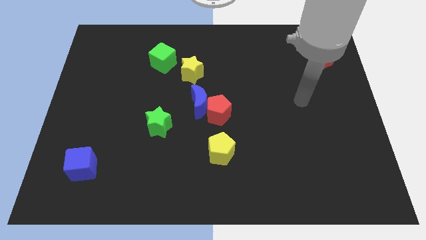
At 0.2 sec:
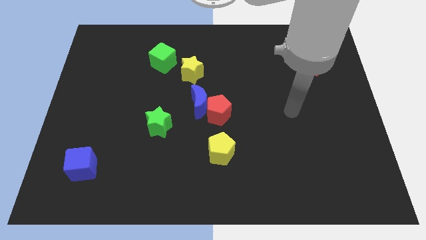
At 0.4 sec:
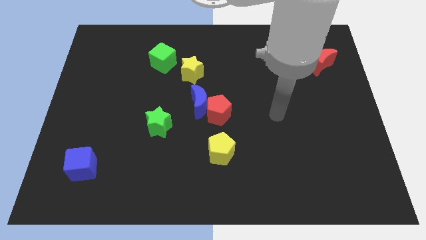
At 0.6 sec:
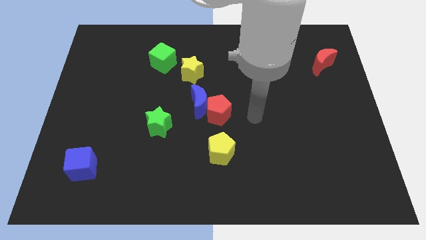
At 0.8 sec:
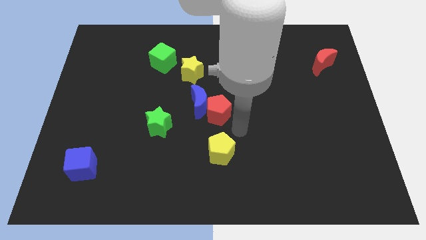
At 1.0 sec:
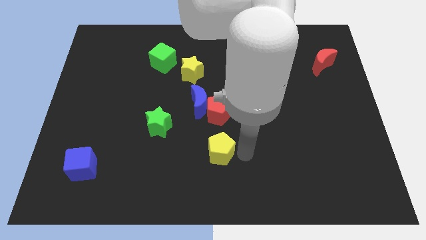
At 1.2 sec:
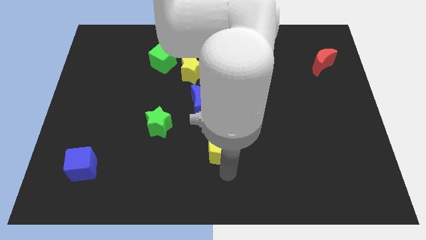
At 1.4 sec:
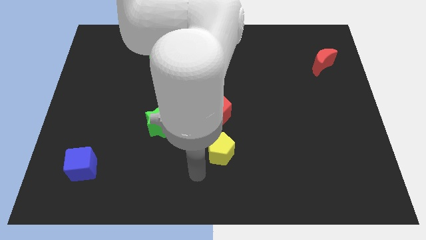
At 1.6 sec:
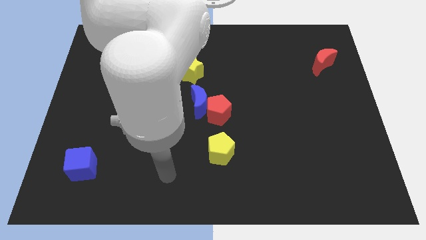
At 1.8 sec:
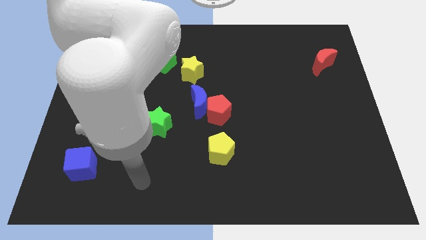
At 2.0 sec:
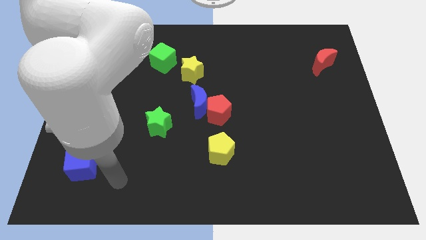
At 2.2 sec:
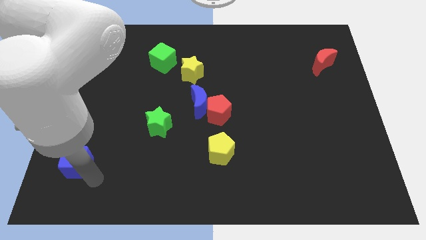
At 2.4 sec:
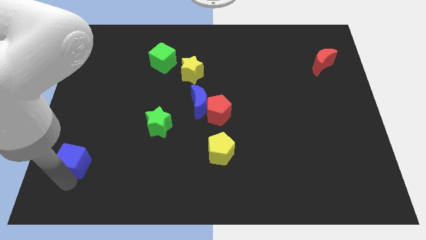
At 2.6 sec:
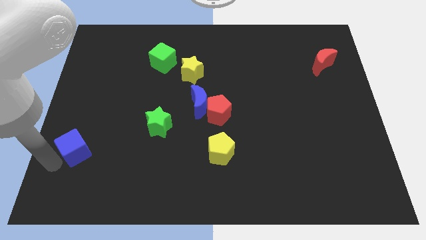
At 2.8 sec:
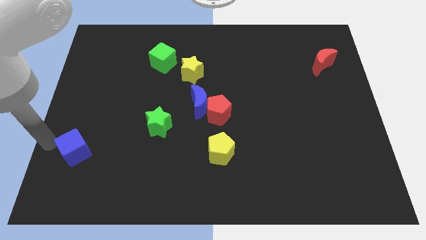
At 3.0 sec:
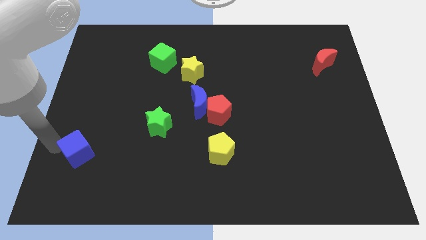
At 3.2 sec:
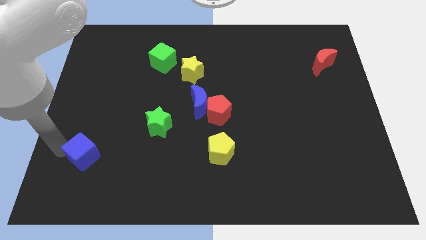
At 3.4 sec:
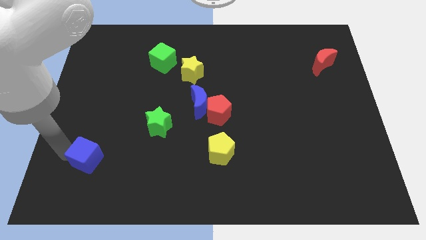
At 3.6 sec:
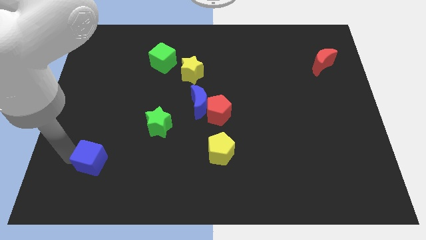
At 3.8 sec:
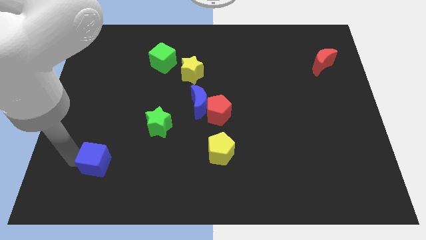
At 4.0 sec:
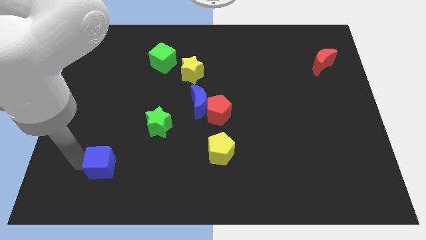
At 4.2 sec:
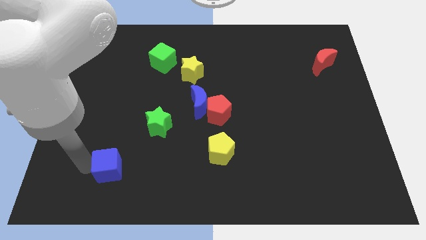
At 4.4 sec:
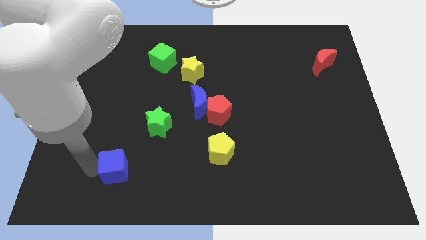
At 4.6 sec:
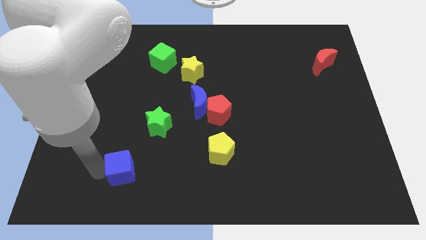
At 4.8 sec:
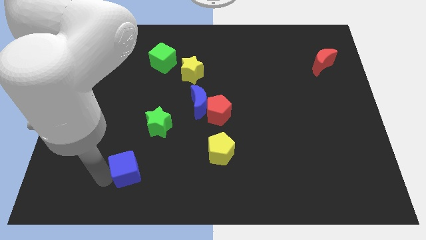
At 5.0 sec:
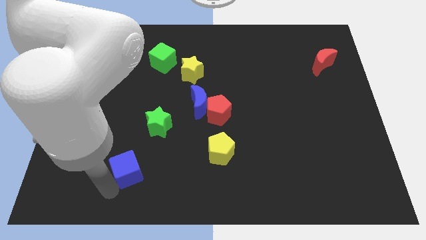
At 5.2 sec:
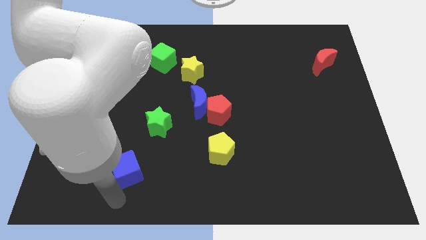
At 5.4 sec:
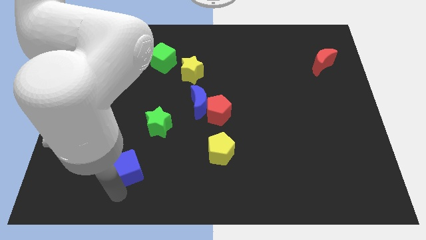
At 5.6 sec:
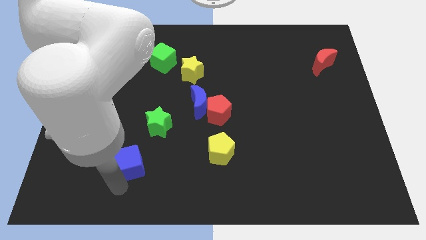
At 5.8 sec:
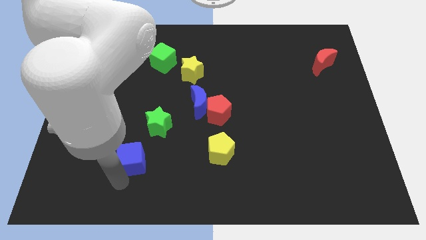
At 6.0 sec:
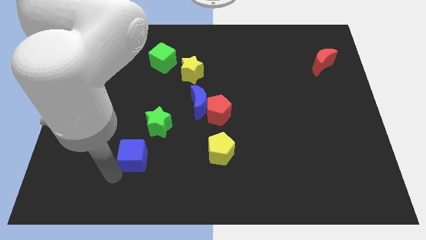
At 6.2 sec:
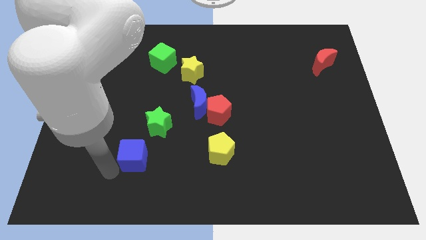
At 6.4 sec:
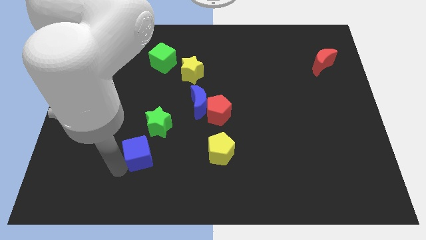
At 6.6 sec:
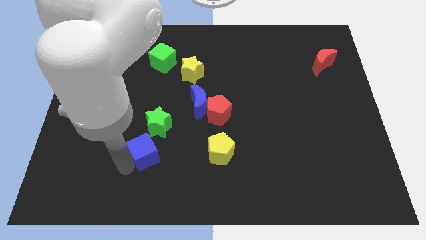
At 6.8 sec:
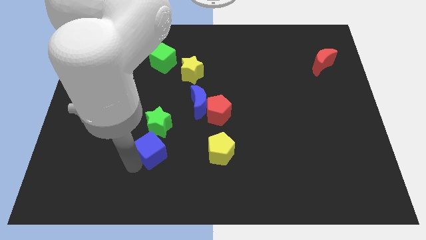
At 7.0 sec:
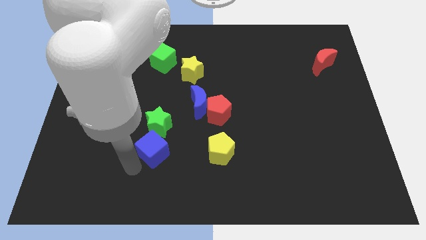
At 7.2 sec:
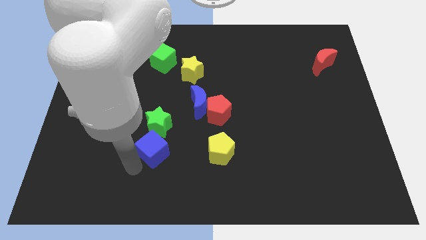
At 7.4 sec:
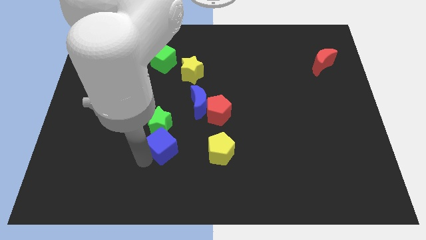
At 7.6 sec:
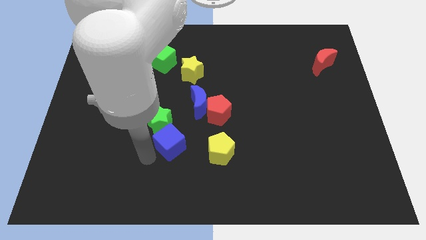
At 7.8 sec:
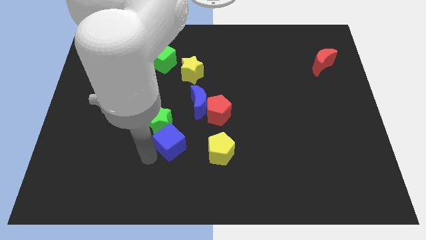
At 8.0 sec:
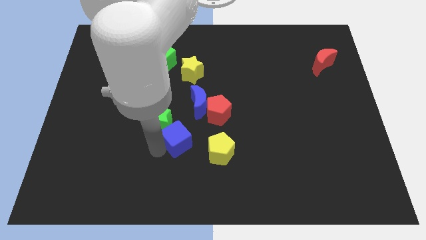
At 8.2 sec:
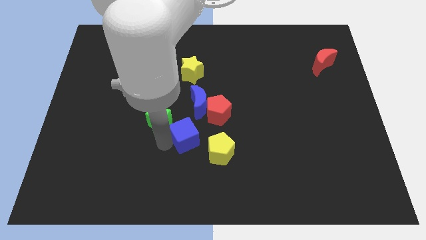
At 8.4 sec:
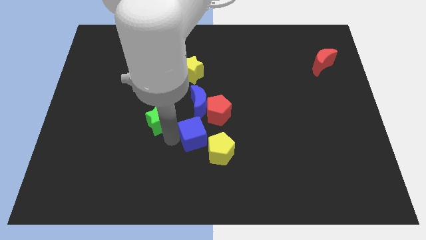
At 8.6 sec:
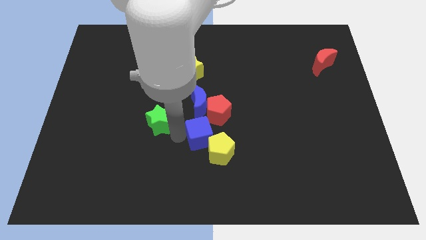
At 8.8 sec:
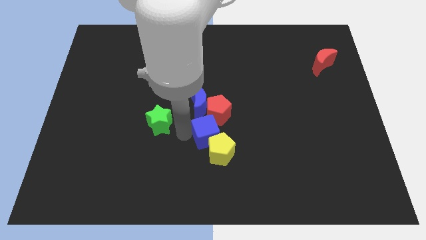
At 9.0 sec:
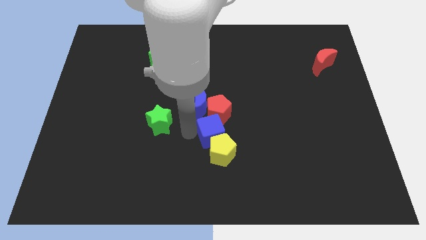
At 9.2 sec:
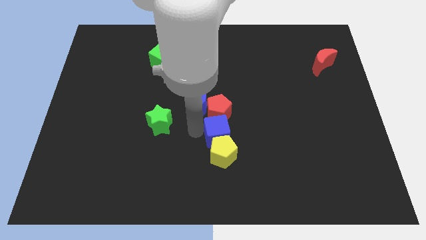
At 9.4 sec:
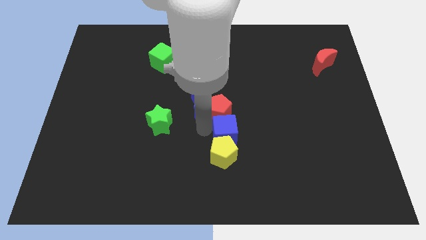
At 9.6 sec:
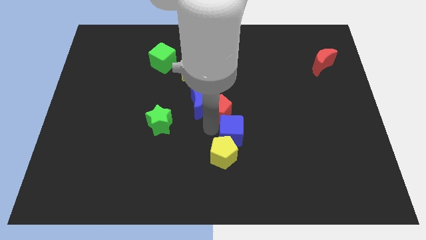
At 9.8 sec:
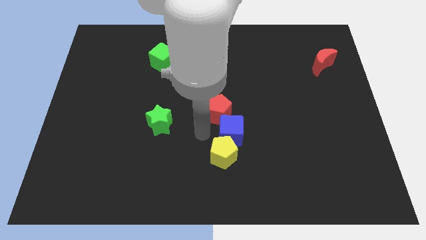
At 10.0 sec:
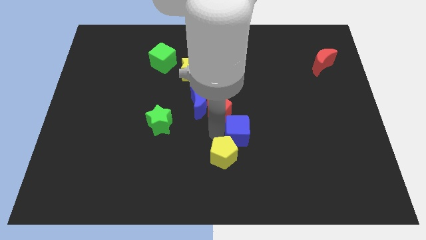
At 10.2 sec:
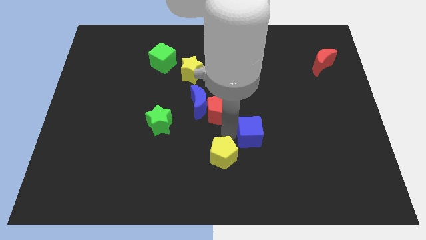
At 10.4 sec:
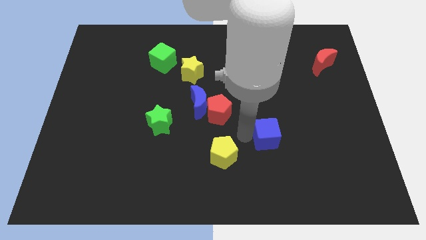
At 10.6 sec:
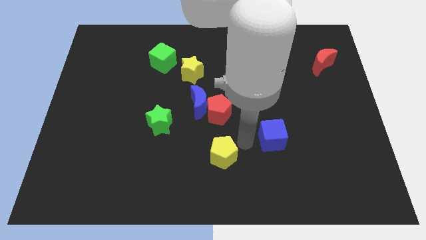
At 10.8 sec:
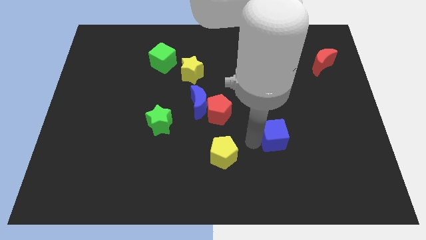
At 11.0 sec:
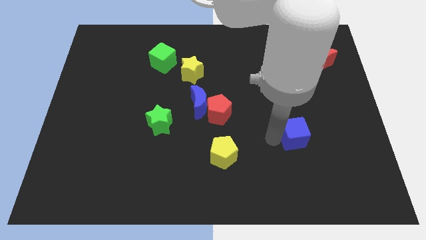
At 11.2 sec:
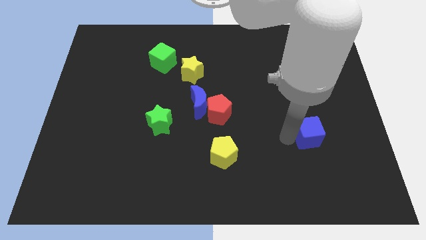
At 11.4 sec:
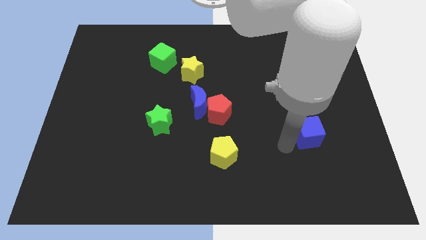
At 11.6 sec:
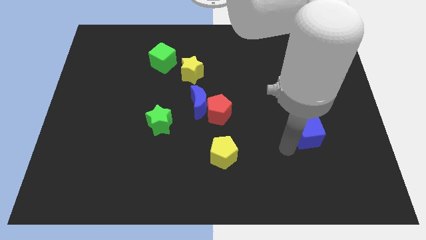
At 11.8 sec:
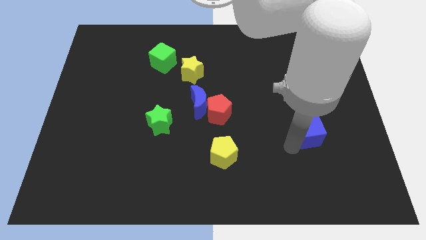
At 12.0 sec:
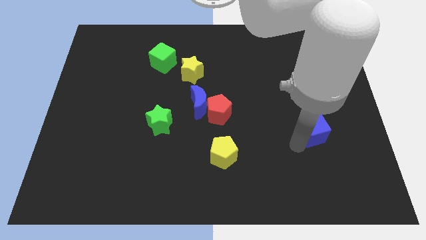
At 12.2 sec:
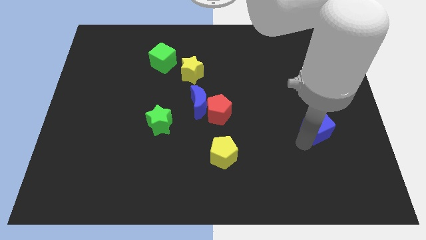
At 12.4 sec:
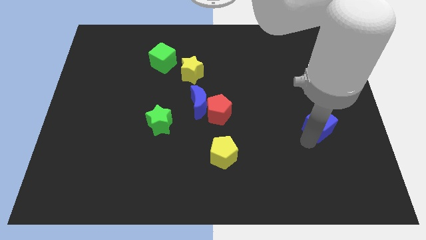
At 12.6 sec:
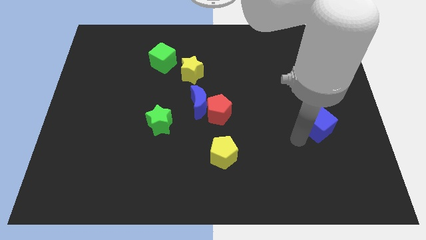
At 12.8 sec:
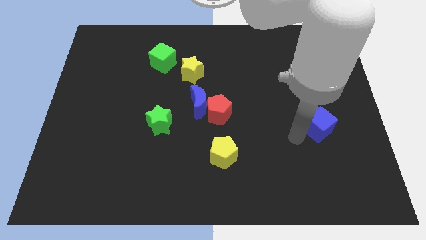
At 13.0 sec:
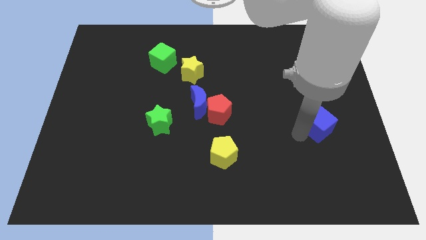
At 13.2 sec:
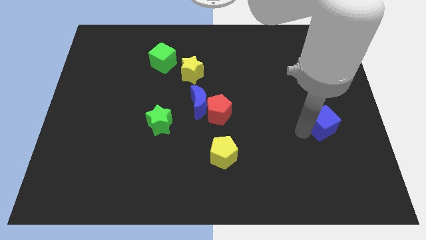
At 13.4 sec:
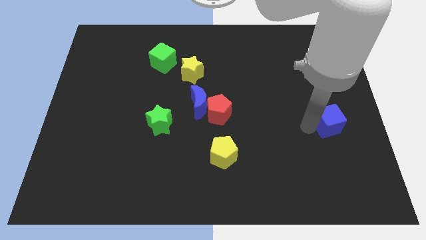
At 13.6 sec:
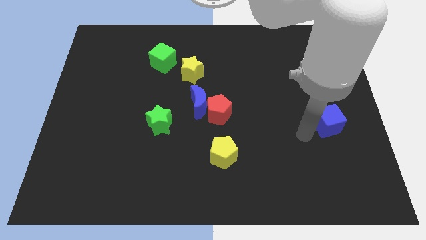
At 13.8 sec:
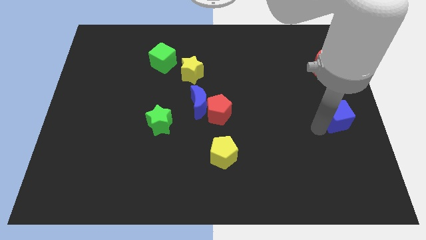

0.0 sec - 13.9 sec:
push the blue cube to the right side of the board

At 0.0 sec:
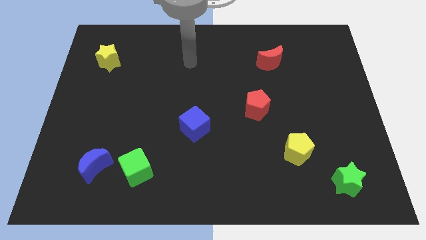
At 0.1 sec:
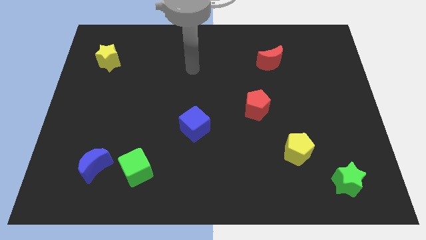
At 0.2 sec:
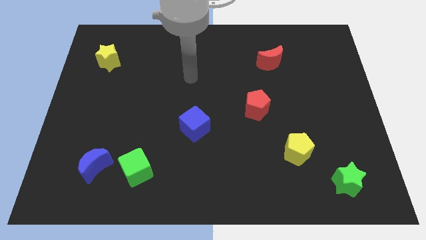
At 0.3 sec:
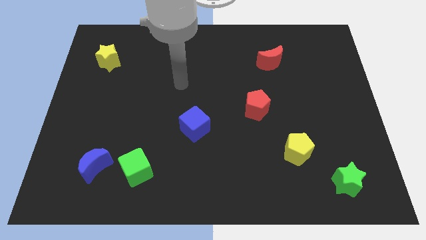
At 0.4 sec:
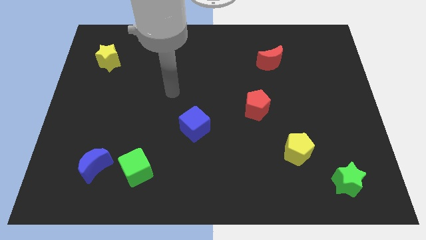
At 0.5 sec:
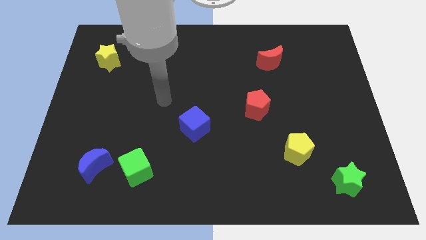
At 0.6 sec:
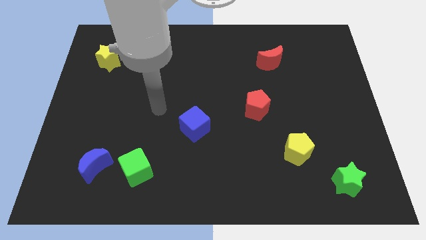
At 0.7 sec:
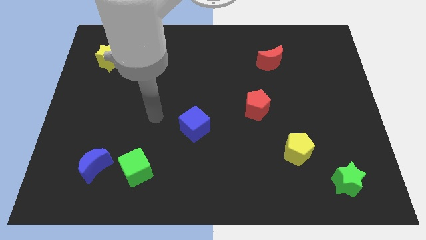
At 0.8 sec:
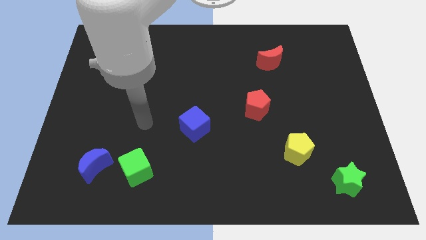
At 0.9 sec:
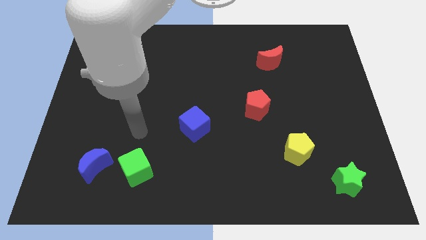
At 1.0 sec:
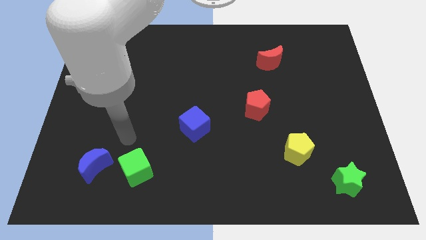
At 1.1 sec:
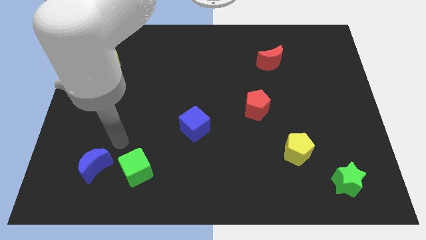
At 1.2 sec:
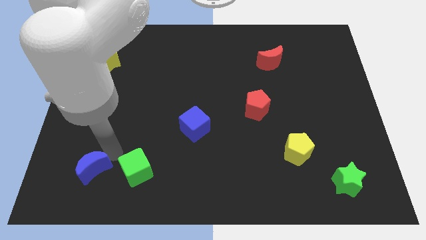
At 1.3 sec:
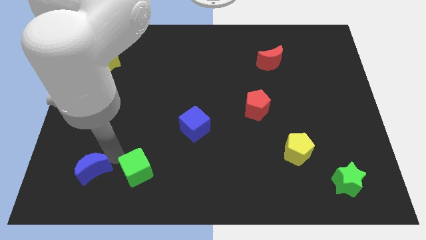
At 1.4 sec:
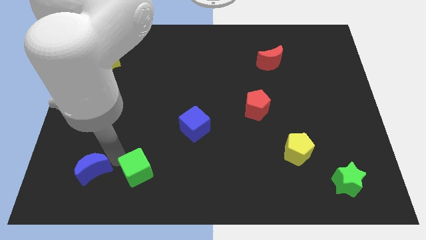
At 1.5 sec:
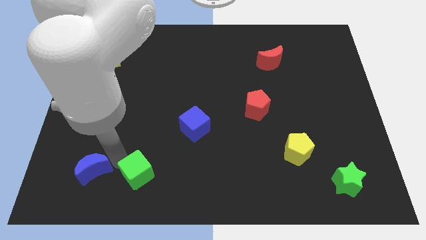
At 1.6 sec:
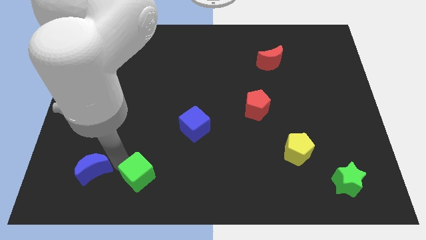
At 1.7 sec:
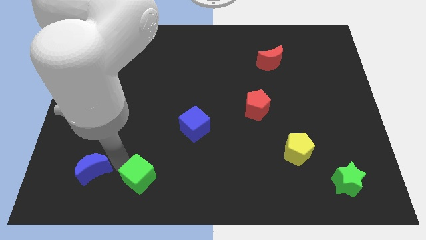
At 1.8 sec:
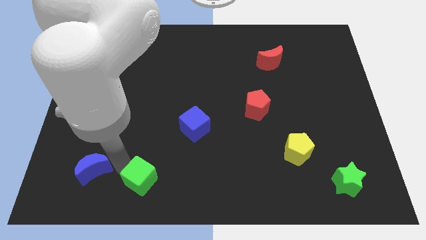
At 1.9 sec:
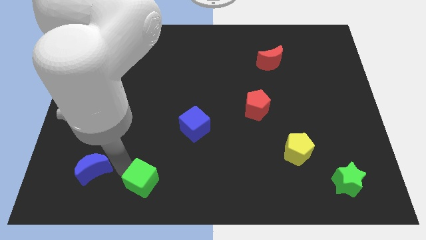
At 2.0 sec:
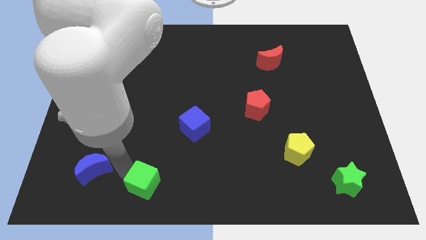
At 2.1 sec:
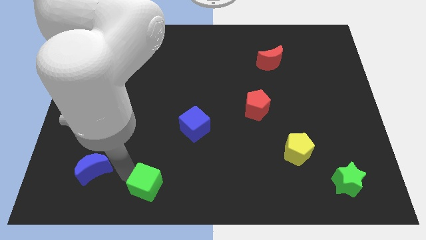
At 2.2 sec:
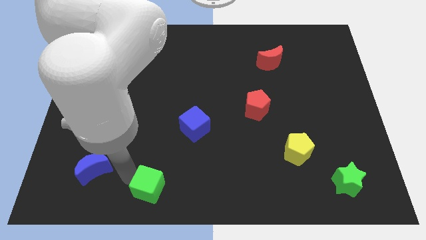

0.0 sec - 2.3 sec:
put the green cube to the bottom
